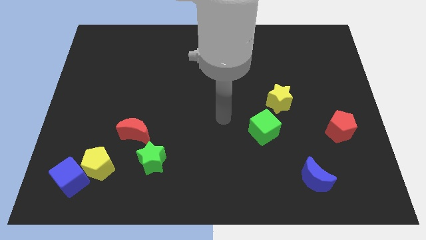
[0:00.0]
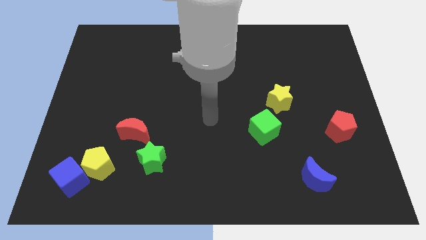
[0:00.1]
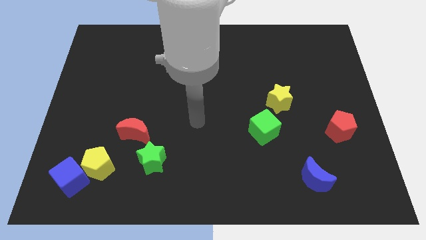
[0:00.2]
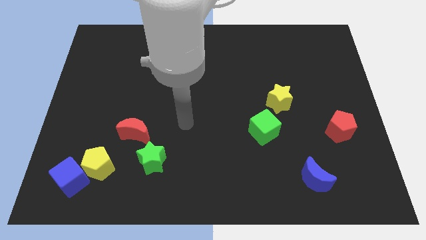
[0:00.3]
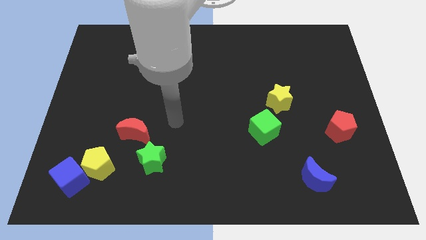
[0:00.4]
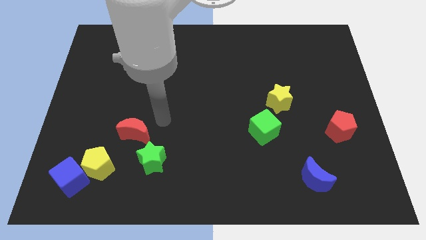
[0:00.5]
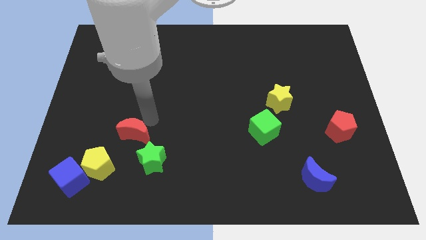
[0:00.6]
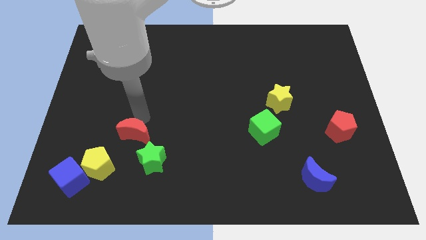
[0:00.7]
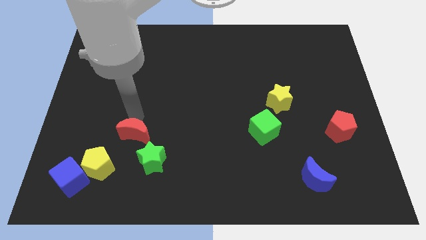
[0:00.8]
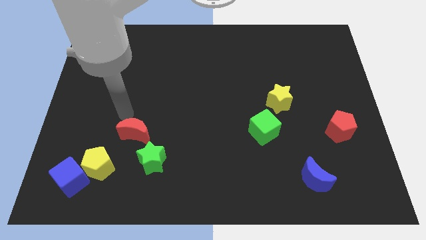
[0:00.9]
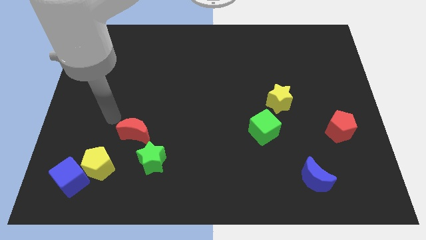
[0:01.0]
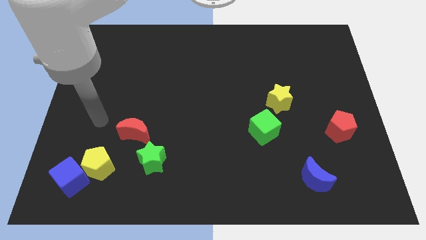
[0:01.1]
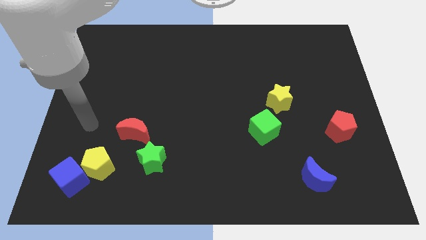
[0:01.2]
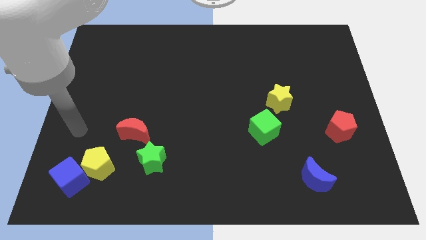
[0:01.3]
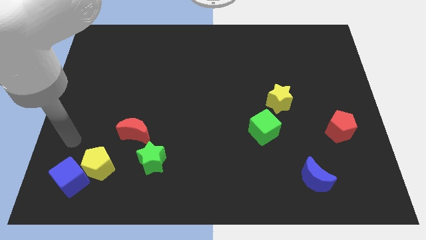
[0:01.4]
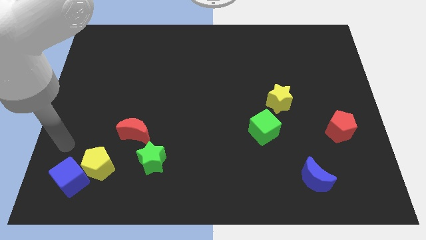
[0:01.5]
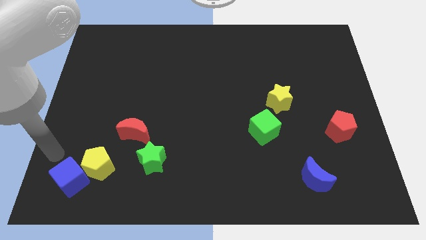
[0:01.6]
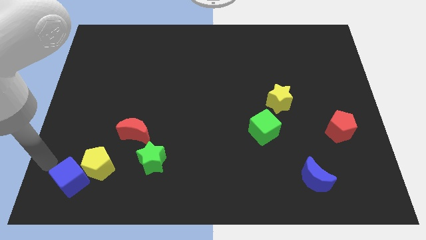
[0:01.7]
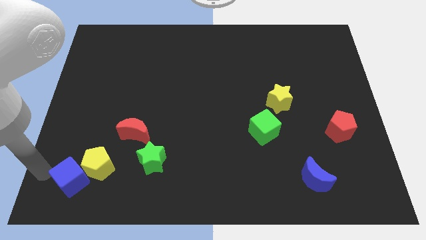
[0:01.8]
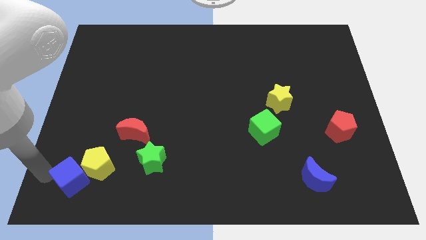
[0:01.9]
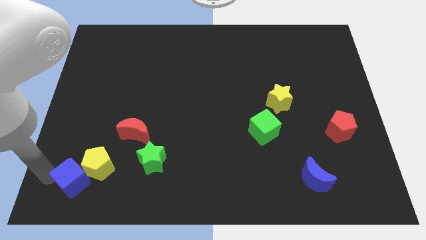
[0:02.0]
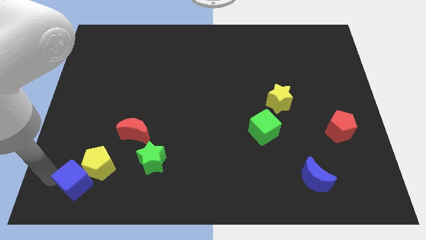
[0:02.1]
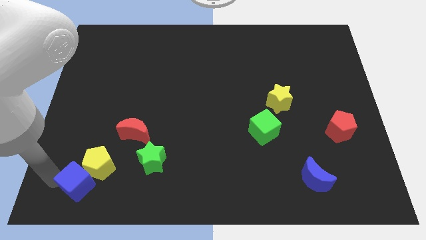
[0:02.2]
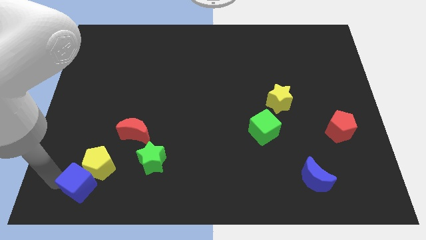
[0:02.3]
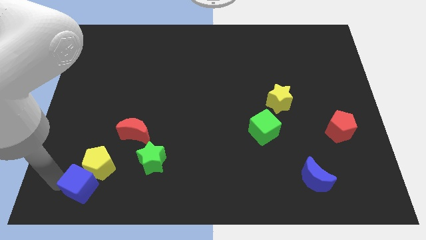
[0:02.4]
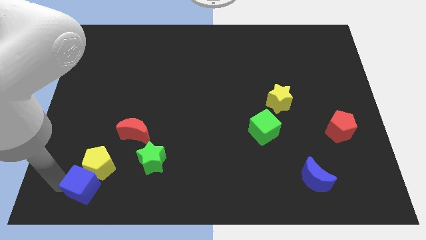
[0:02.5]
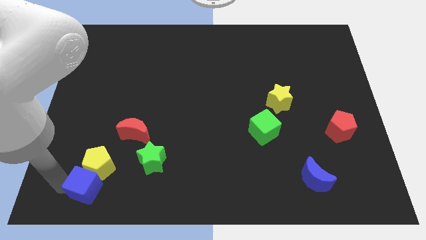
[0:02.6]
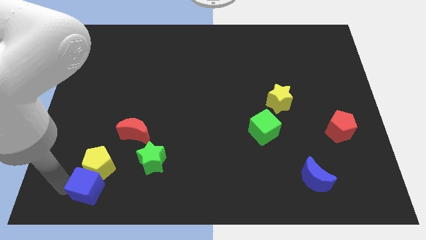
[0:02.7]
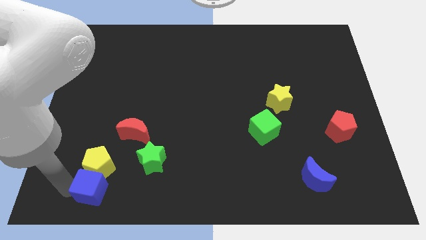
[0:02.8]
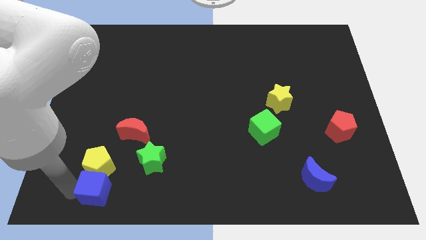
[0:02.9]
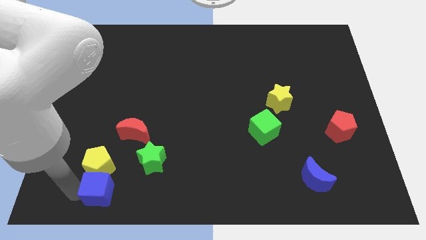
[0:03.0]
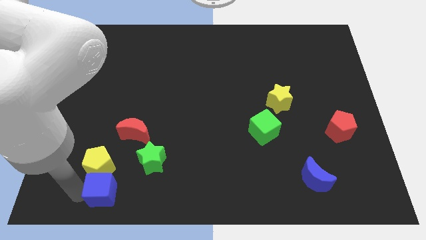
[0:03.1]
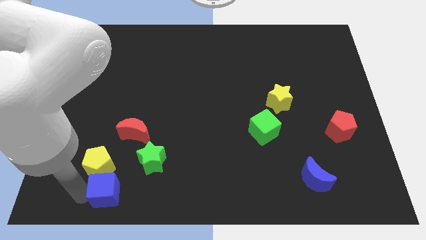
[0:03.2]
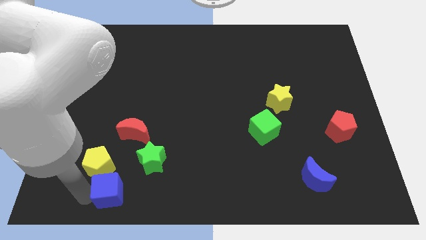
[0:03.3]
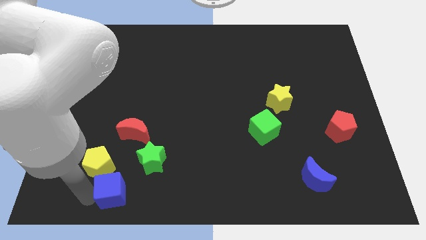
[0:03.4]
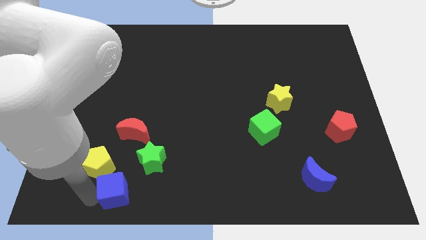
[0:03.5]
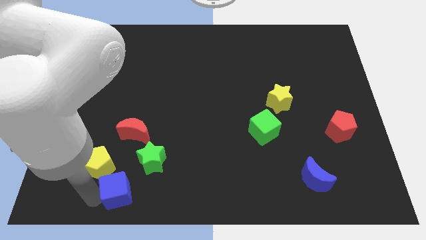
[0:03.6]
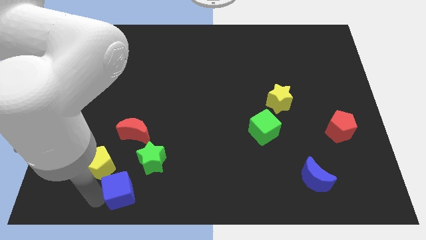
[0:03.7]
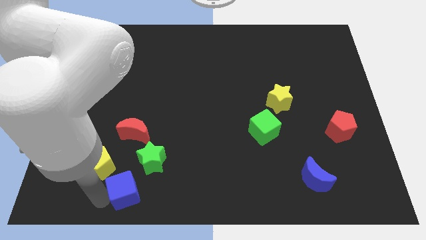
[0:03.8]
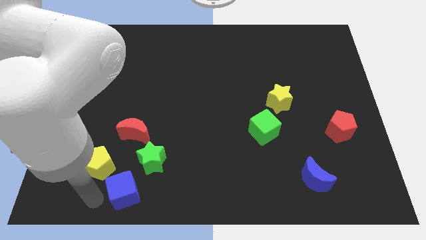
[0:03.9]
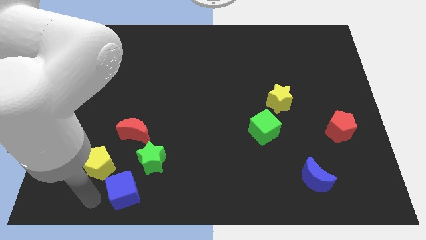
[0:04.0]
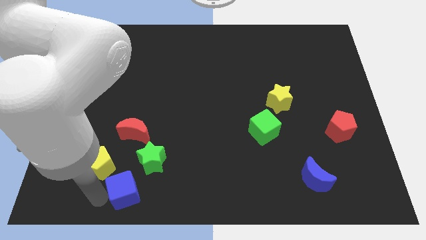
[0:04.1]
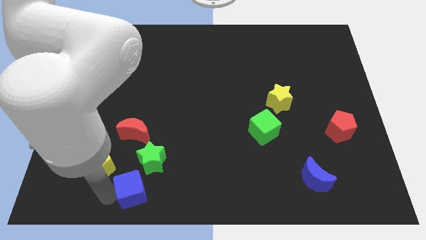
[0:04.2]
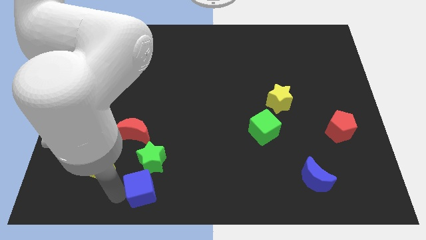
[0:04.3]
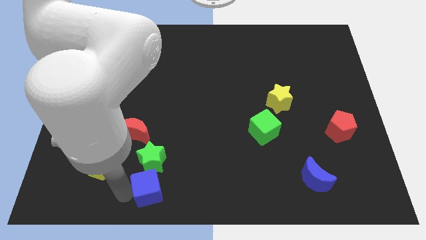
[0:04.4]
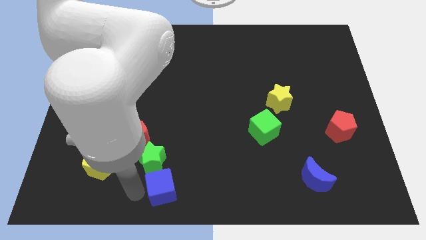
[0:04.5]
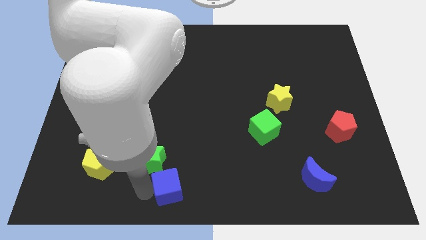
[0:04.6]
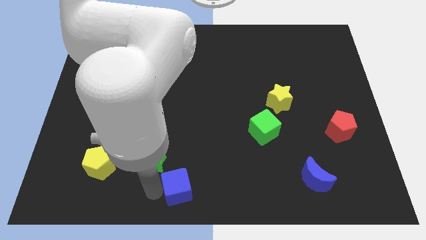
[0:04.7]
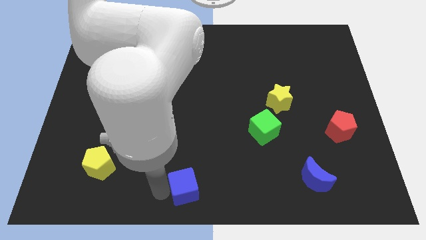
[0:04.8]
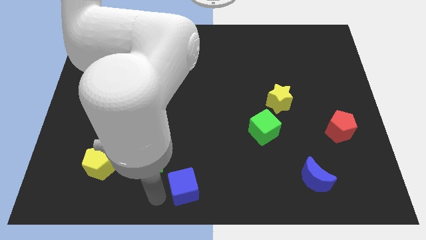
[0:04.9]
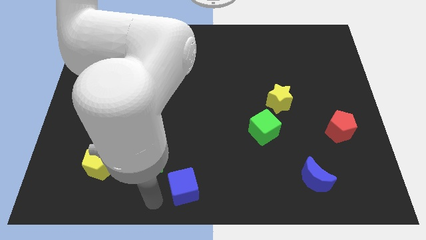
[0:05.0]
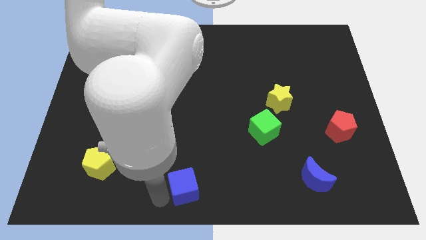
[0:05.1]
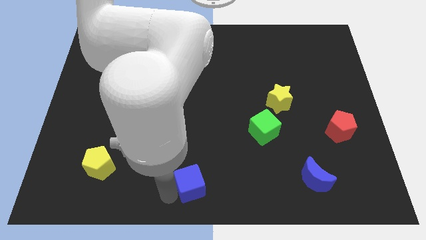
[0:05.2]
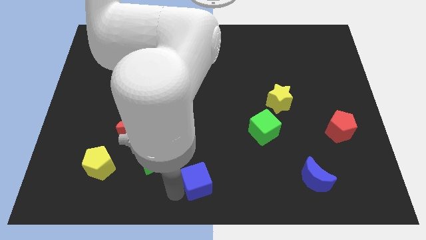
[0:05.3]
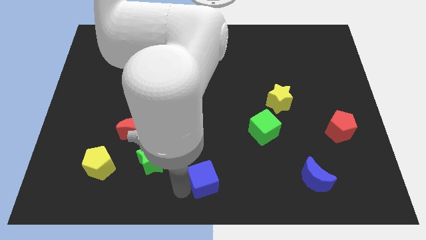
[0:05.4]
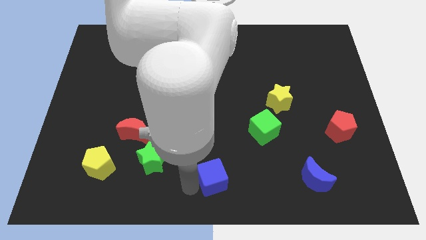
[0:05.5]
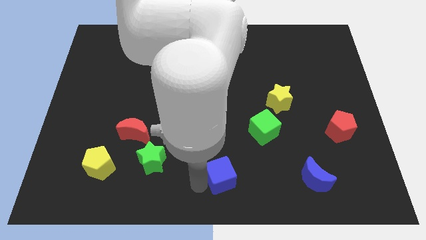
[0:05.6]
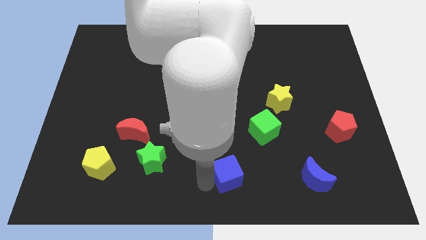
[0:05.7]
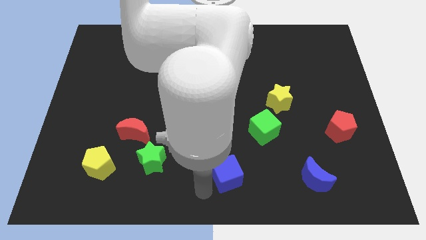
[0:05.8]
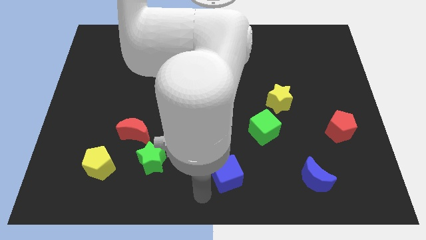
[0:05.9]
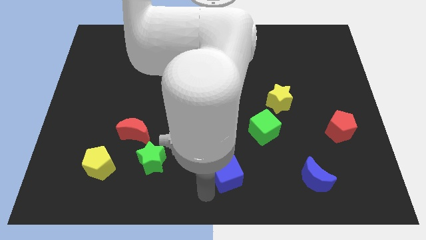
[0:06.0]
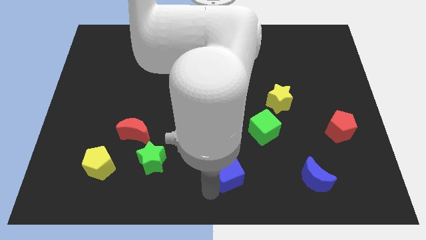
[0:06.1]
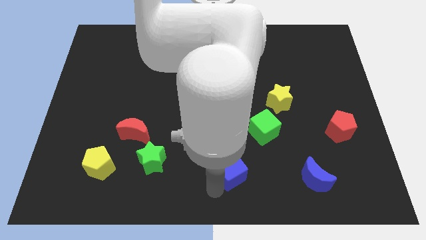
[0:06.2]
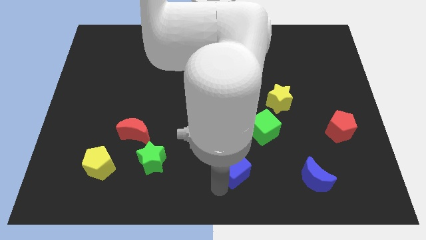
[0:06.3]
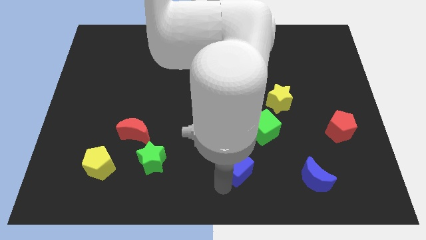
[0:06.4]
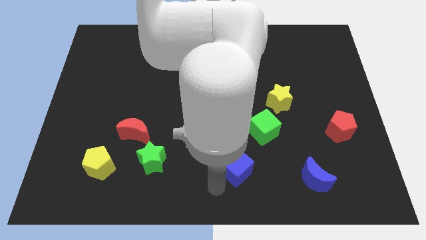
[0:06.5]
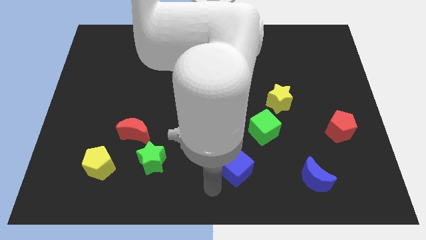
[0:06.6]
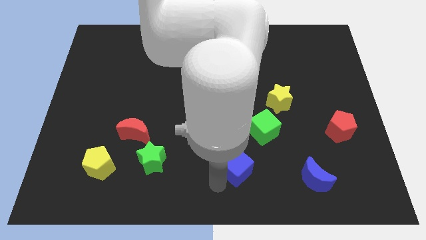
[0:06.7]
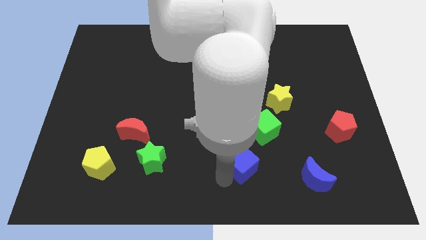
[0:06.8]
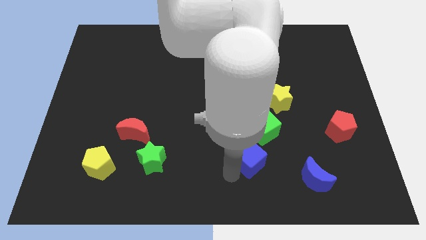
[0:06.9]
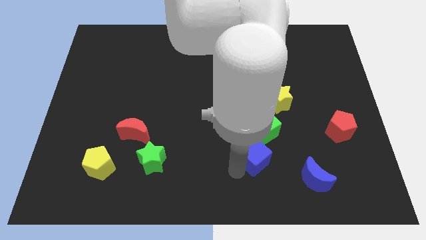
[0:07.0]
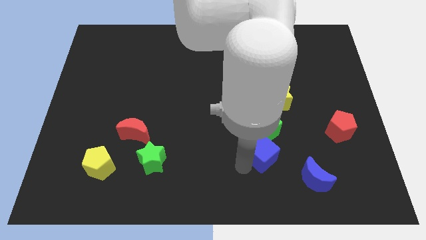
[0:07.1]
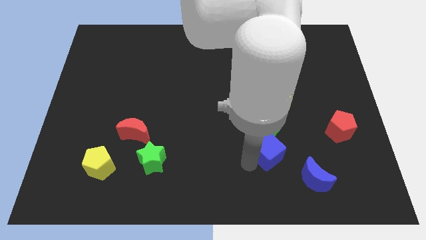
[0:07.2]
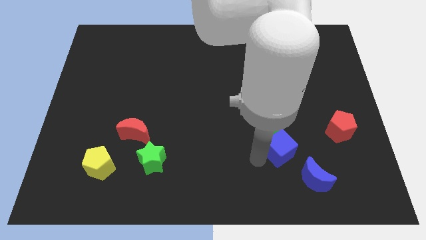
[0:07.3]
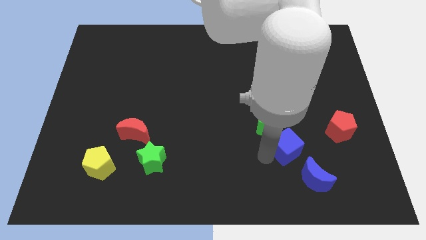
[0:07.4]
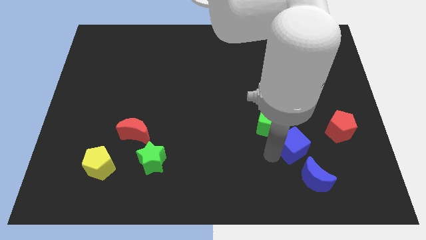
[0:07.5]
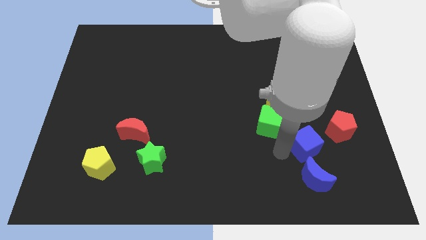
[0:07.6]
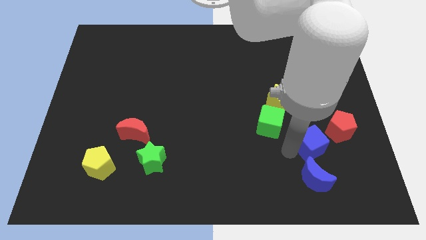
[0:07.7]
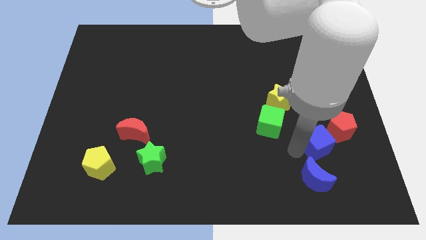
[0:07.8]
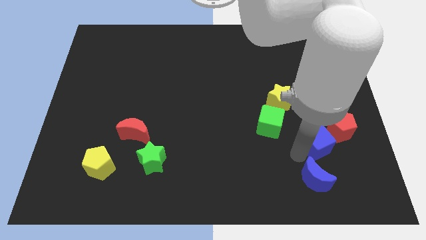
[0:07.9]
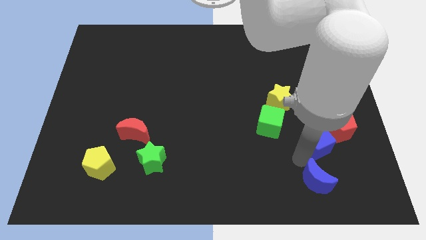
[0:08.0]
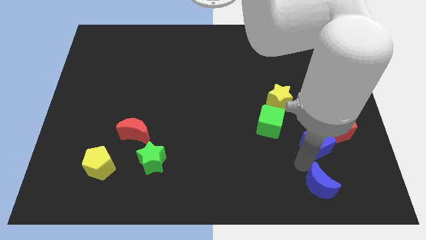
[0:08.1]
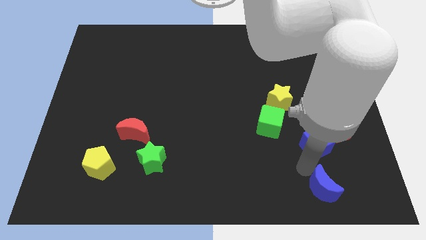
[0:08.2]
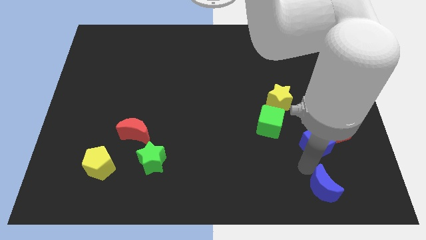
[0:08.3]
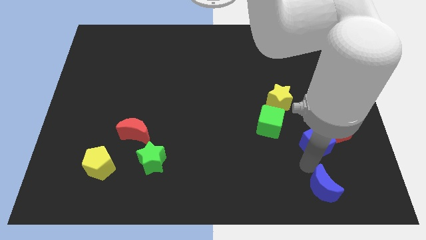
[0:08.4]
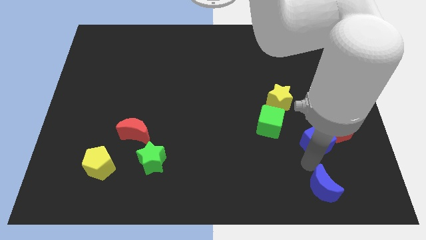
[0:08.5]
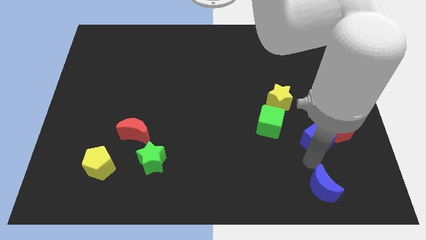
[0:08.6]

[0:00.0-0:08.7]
push the blue cube to the red pentagon
